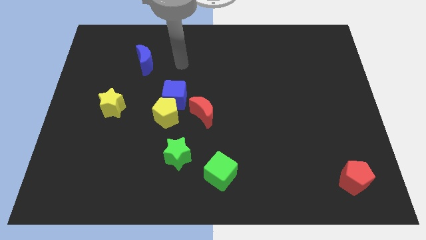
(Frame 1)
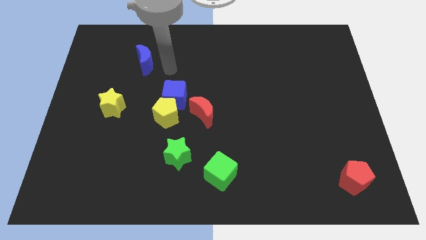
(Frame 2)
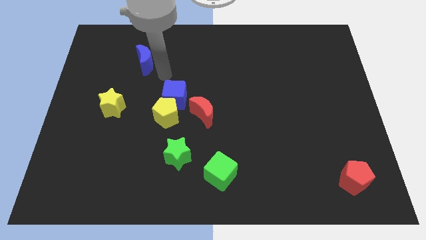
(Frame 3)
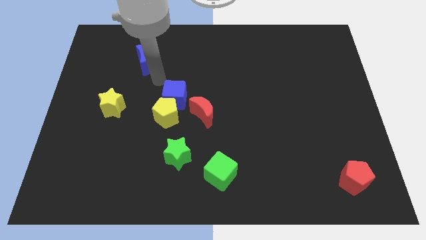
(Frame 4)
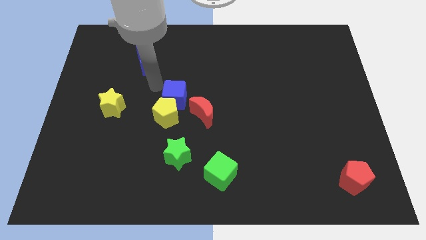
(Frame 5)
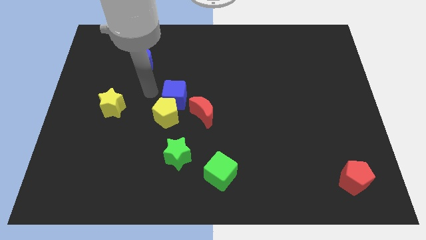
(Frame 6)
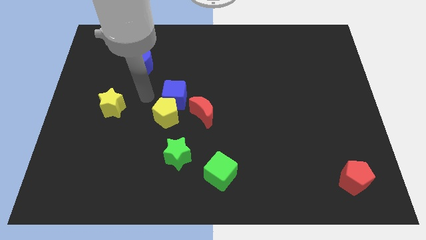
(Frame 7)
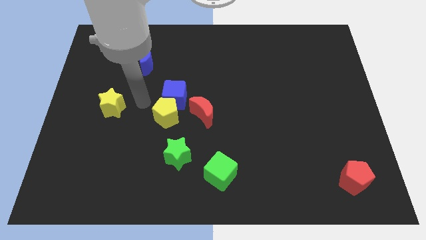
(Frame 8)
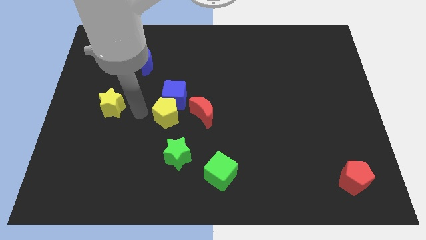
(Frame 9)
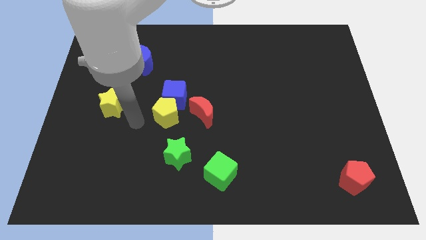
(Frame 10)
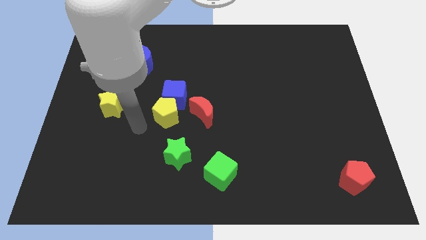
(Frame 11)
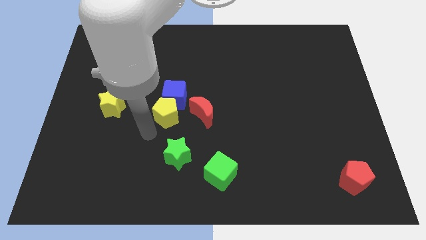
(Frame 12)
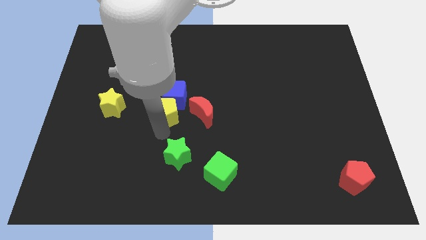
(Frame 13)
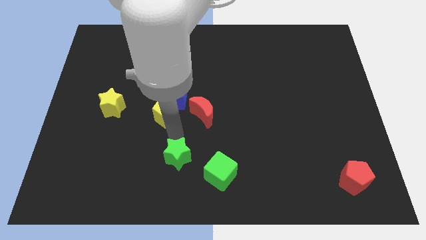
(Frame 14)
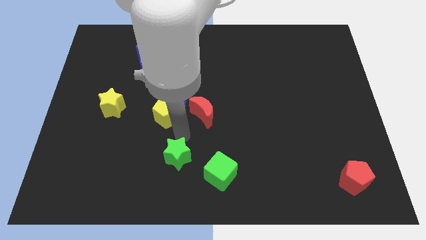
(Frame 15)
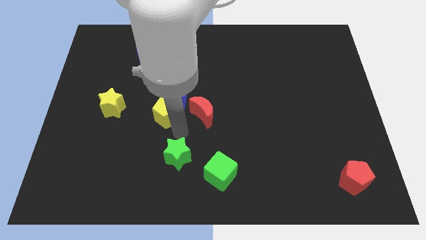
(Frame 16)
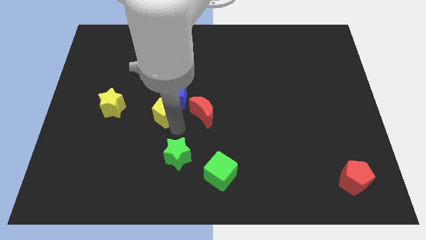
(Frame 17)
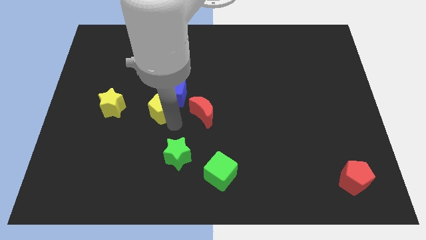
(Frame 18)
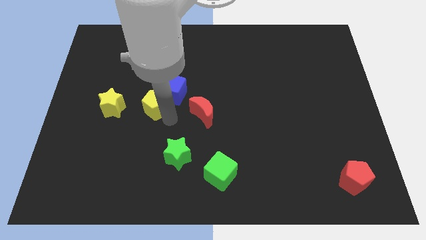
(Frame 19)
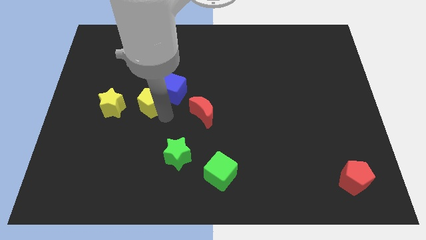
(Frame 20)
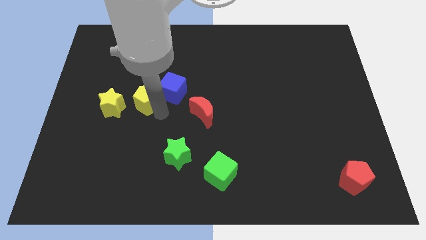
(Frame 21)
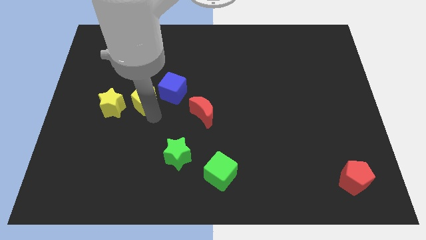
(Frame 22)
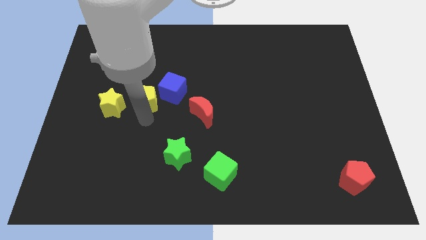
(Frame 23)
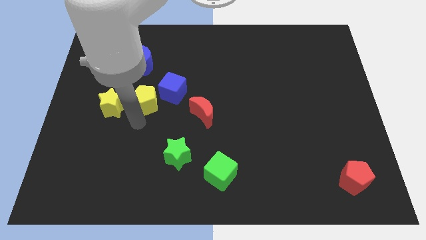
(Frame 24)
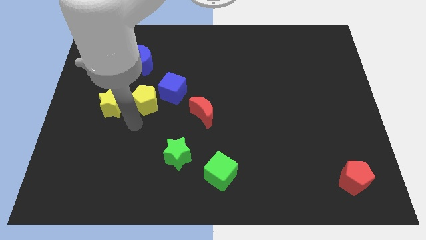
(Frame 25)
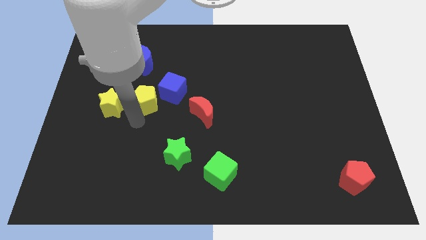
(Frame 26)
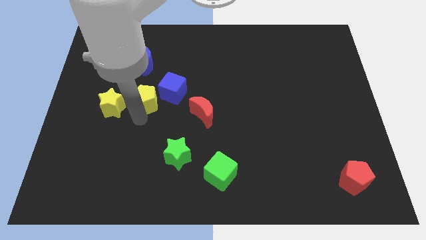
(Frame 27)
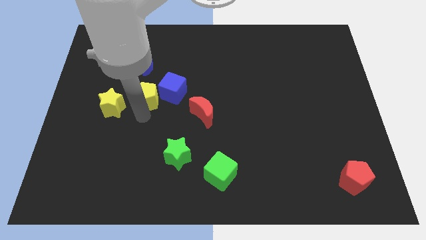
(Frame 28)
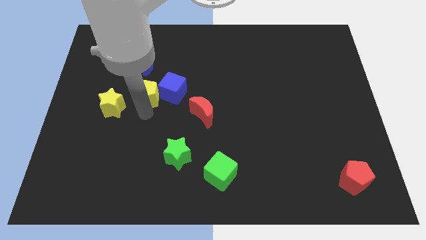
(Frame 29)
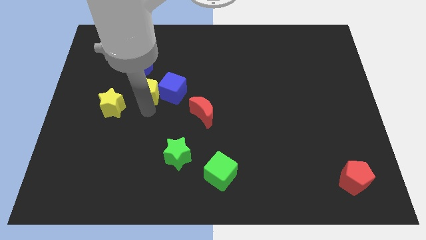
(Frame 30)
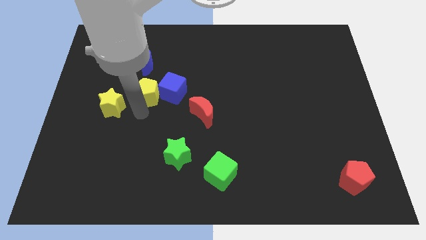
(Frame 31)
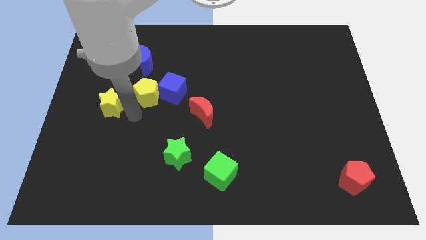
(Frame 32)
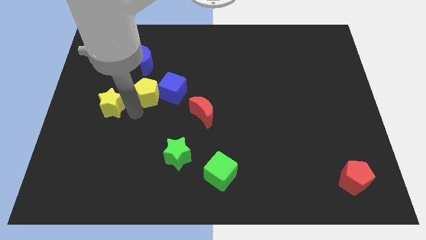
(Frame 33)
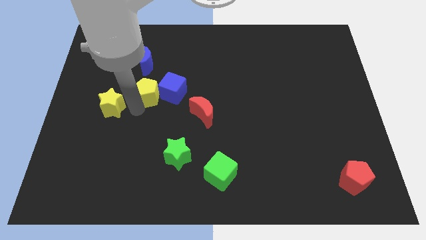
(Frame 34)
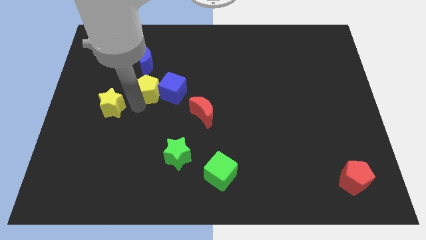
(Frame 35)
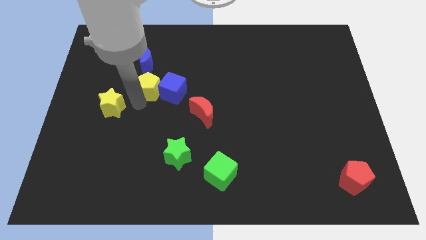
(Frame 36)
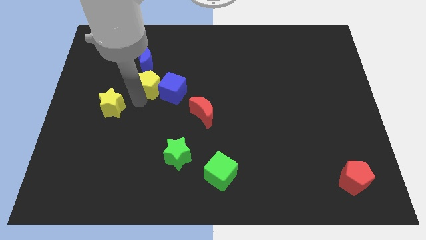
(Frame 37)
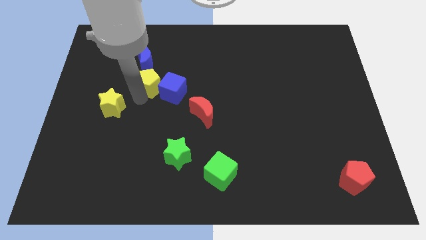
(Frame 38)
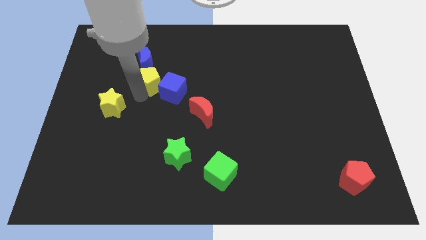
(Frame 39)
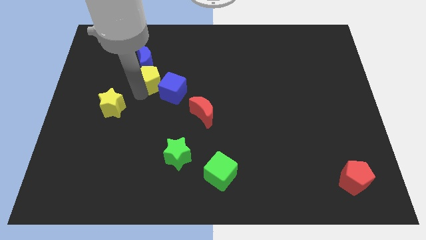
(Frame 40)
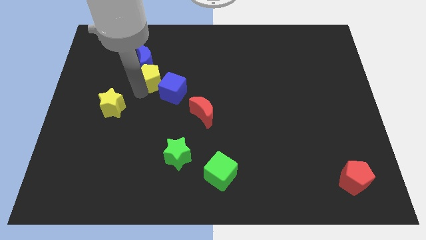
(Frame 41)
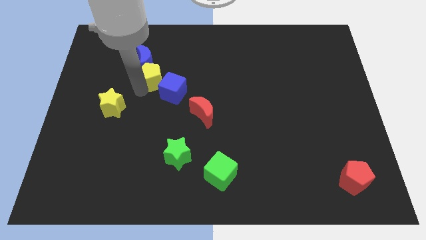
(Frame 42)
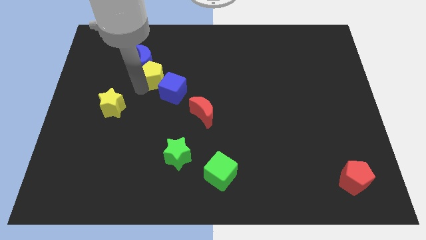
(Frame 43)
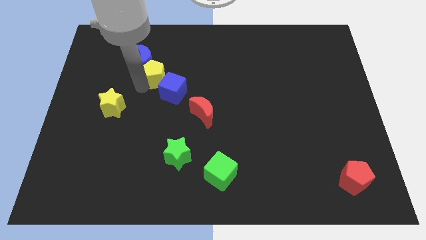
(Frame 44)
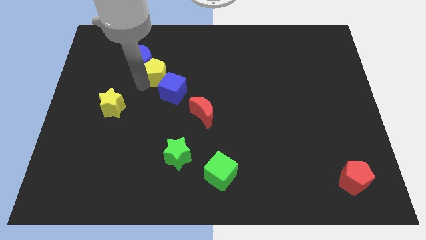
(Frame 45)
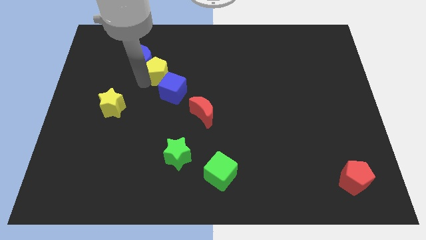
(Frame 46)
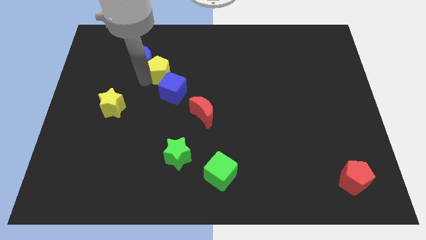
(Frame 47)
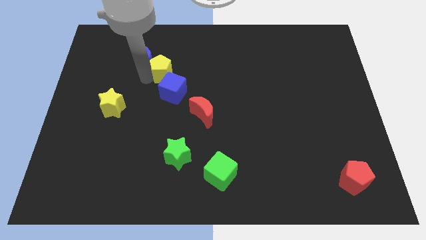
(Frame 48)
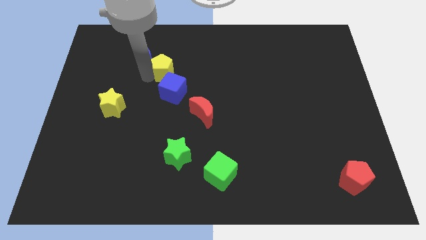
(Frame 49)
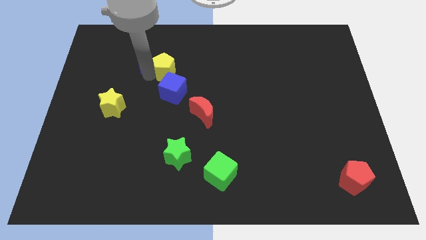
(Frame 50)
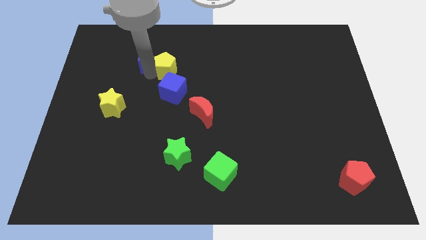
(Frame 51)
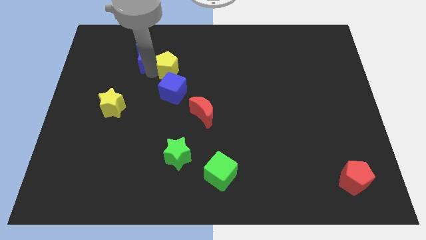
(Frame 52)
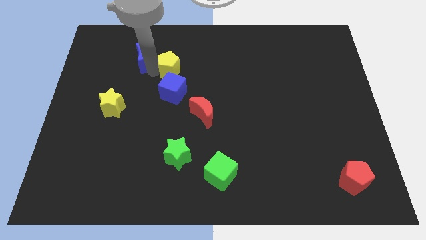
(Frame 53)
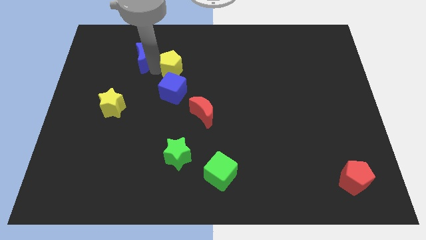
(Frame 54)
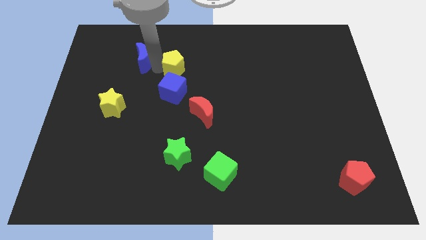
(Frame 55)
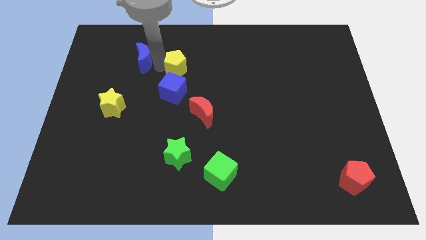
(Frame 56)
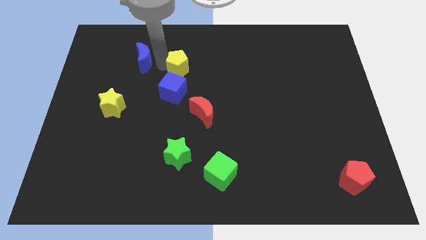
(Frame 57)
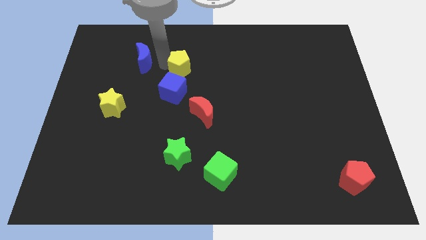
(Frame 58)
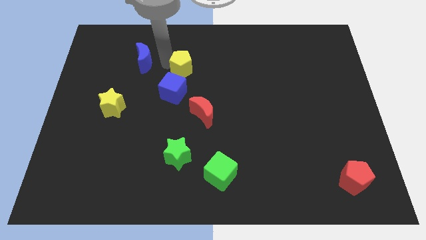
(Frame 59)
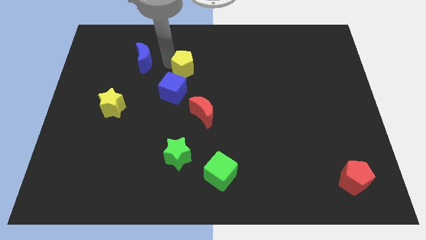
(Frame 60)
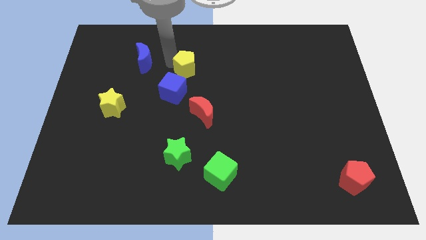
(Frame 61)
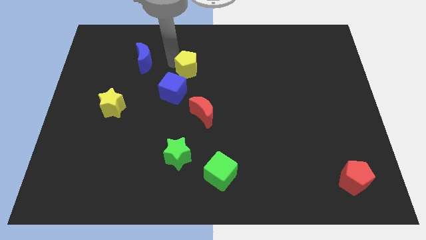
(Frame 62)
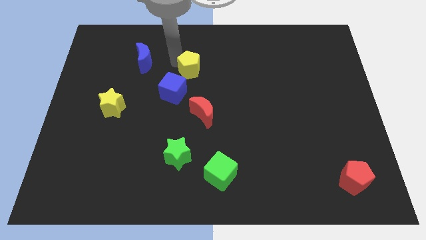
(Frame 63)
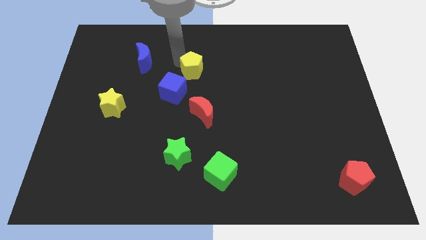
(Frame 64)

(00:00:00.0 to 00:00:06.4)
slide the yellow pentagon to the top of the red moon

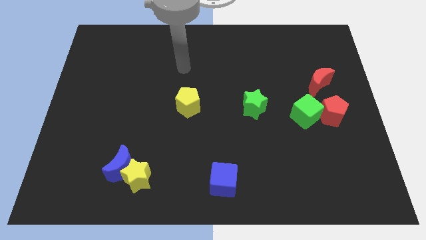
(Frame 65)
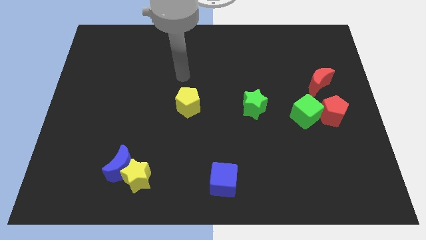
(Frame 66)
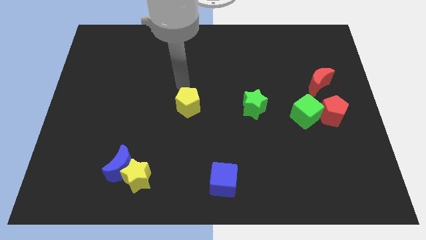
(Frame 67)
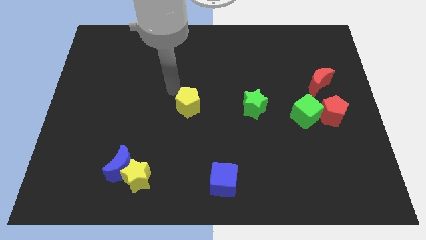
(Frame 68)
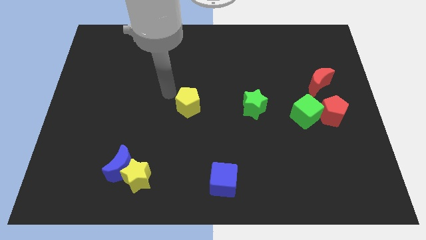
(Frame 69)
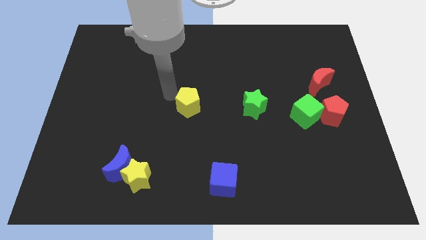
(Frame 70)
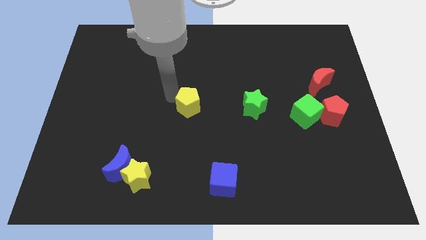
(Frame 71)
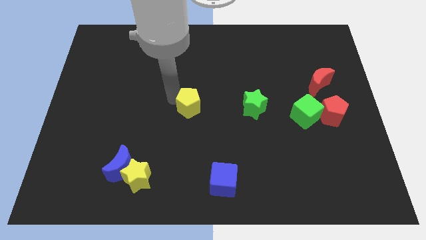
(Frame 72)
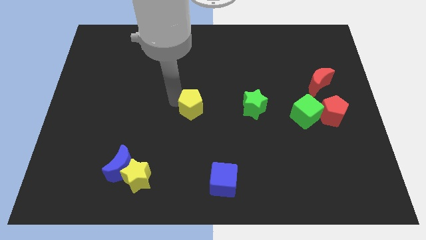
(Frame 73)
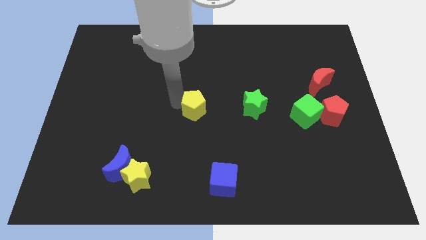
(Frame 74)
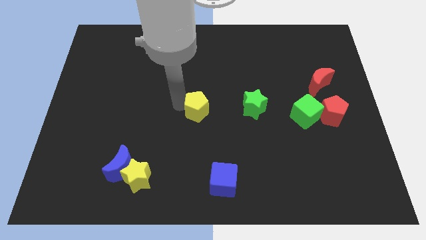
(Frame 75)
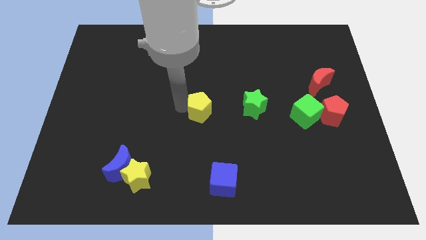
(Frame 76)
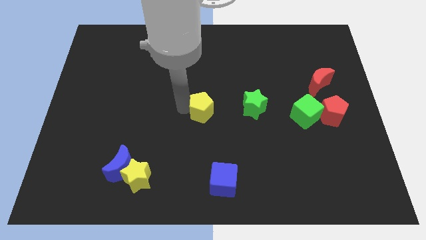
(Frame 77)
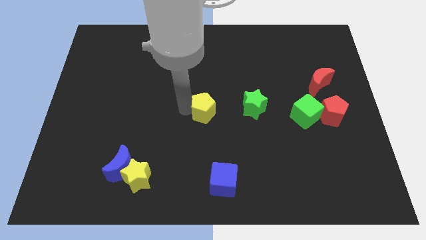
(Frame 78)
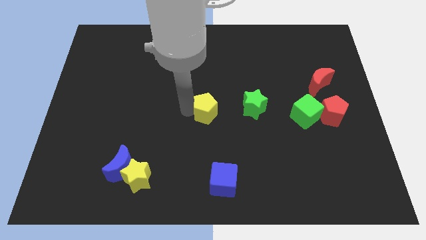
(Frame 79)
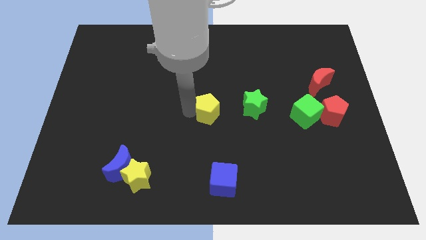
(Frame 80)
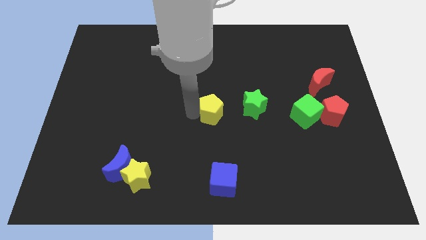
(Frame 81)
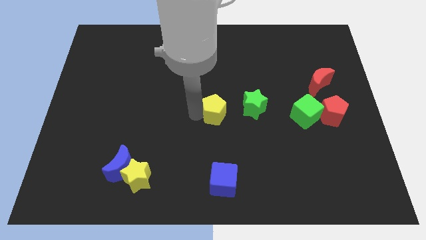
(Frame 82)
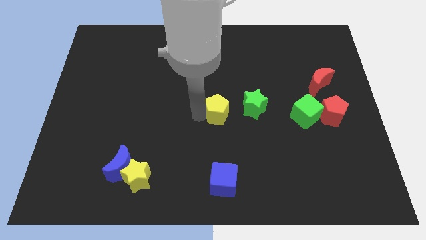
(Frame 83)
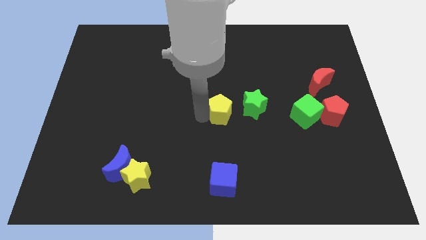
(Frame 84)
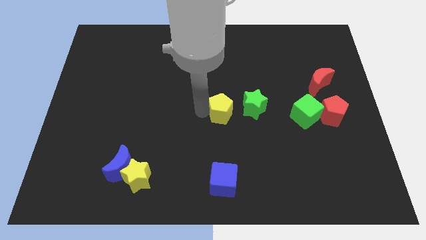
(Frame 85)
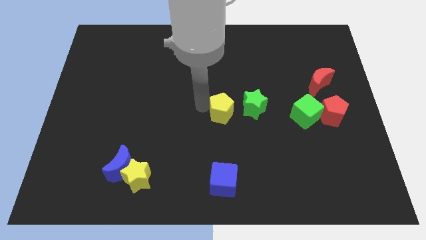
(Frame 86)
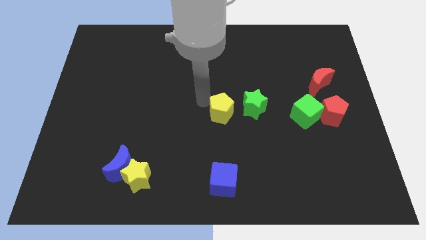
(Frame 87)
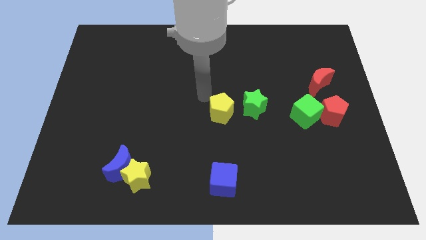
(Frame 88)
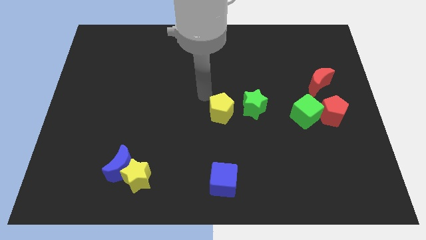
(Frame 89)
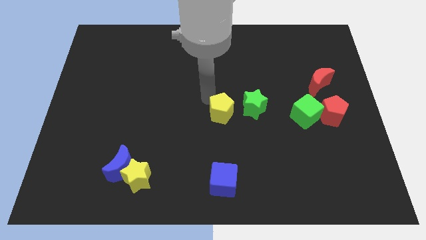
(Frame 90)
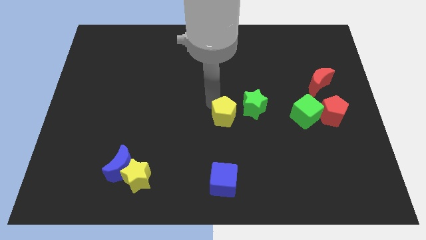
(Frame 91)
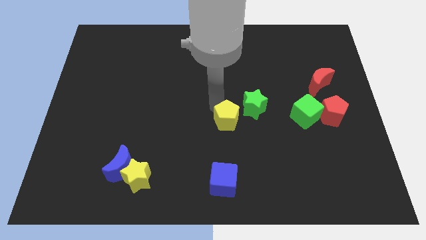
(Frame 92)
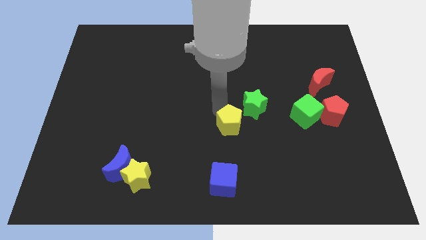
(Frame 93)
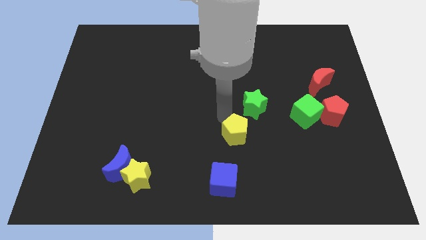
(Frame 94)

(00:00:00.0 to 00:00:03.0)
push the yellow pentagon to the bottom of the green star
